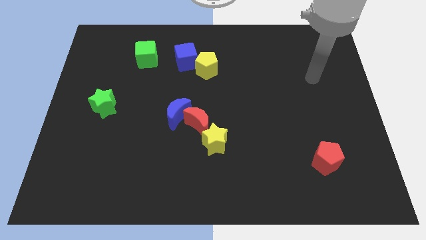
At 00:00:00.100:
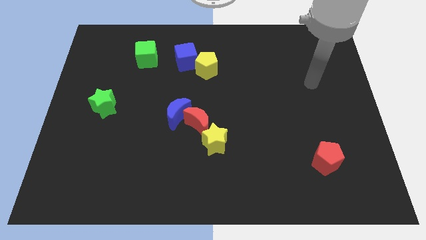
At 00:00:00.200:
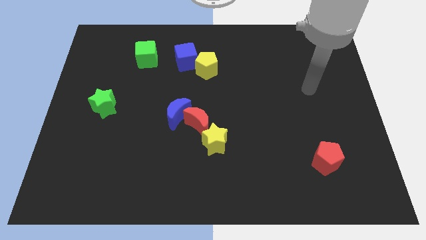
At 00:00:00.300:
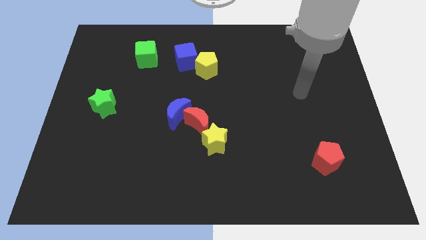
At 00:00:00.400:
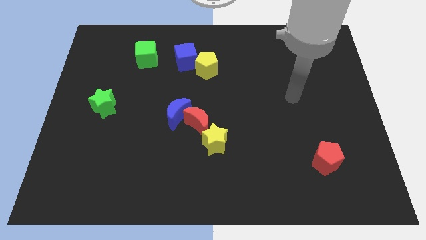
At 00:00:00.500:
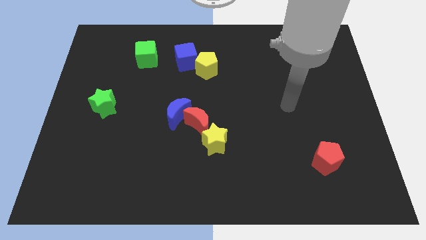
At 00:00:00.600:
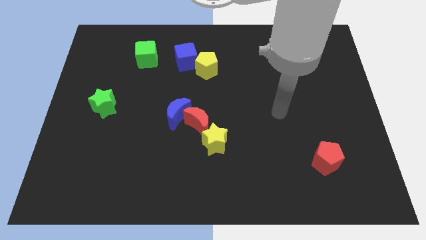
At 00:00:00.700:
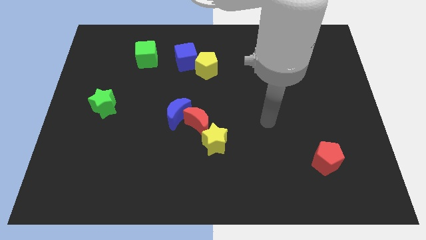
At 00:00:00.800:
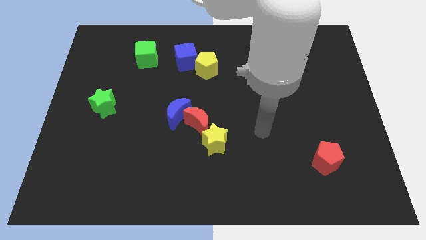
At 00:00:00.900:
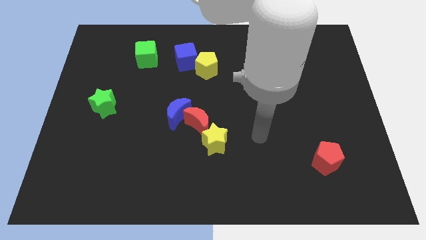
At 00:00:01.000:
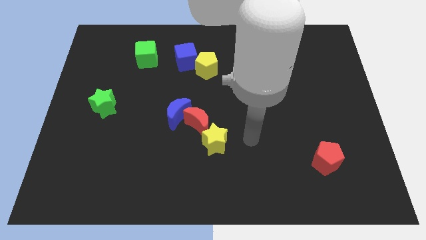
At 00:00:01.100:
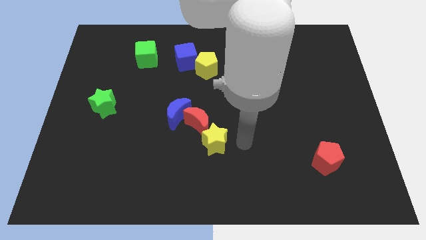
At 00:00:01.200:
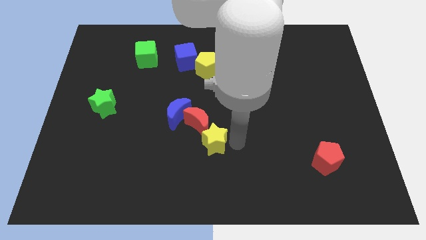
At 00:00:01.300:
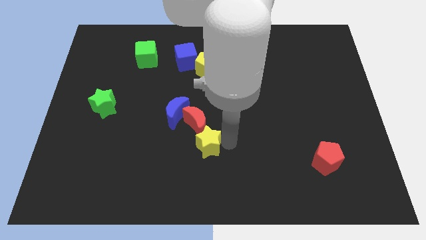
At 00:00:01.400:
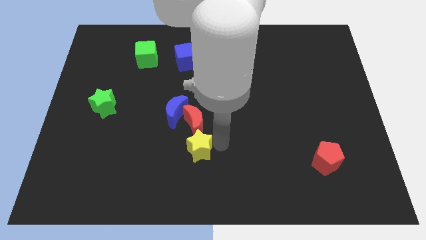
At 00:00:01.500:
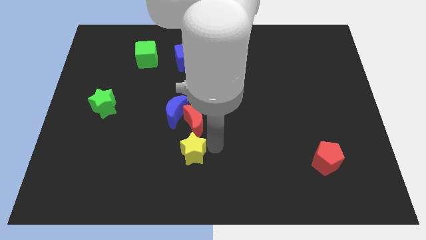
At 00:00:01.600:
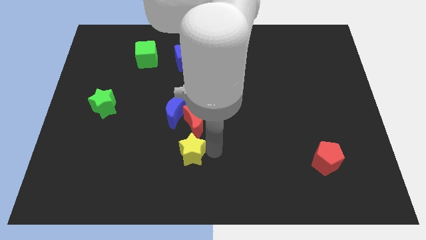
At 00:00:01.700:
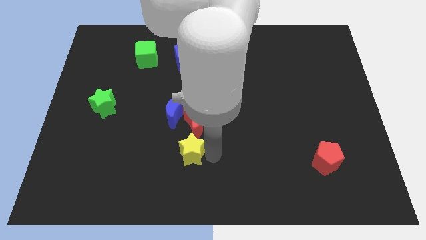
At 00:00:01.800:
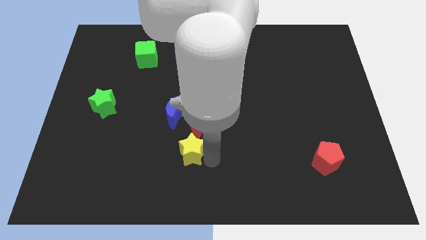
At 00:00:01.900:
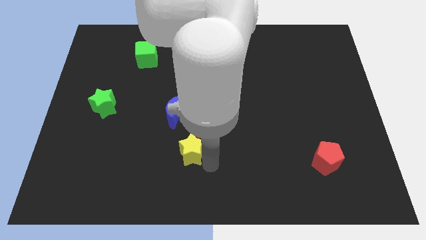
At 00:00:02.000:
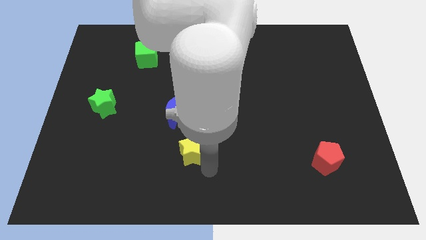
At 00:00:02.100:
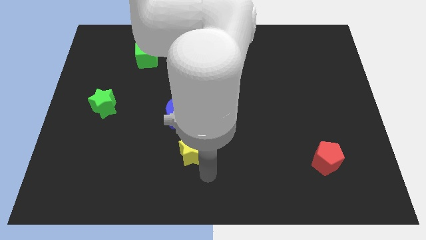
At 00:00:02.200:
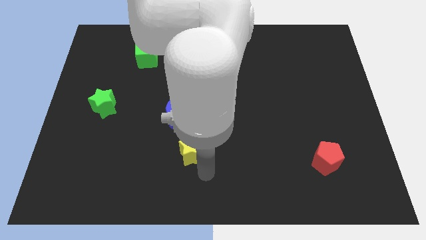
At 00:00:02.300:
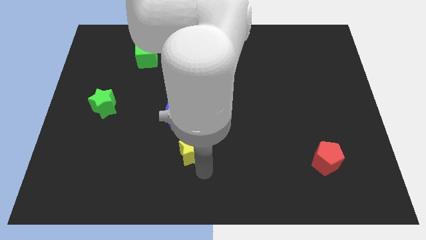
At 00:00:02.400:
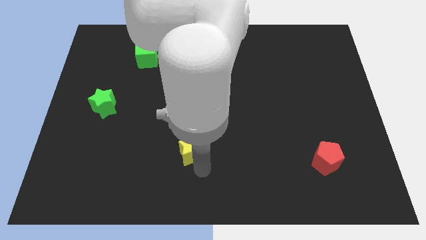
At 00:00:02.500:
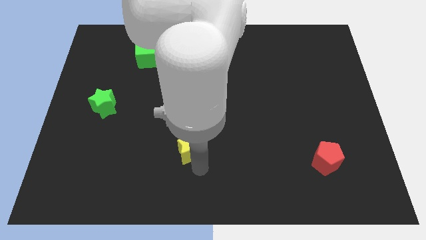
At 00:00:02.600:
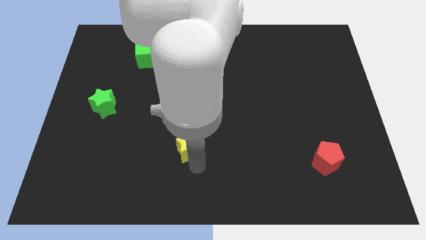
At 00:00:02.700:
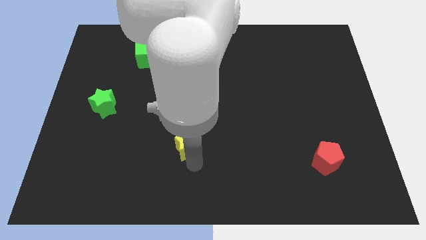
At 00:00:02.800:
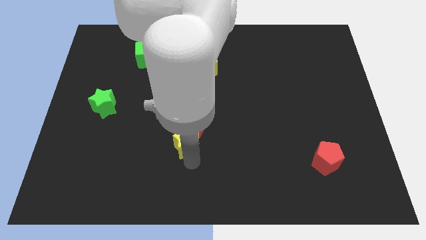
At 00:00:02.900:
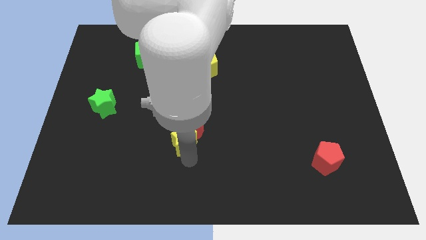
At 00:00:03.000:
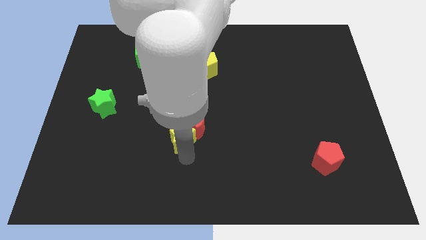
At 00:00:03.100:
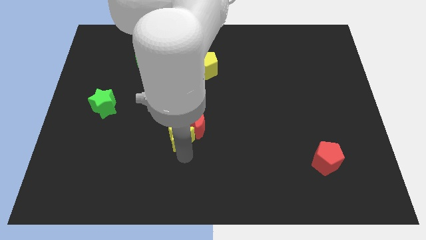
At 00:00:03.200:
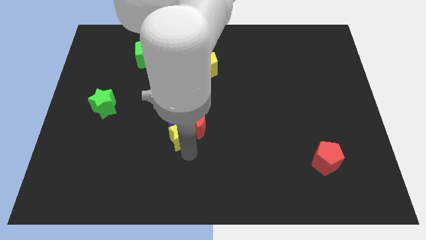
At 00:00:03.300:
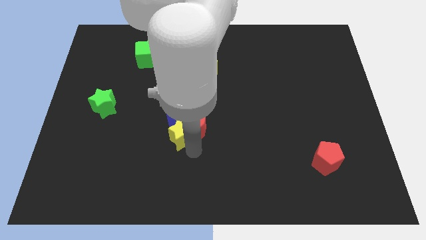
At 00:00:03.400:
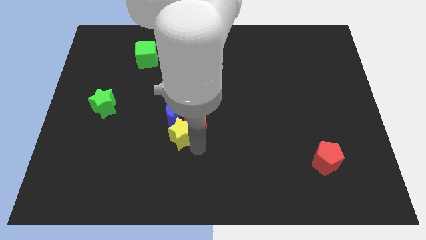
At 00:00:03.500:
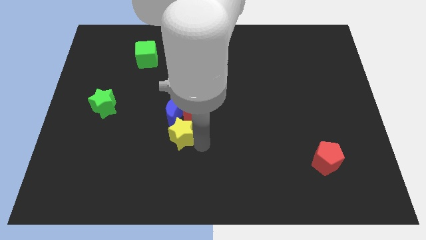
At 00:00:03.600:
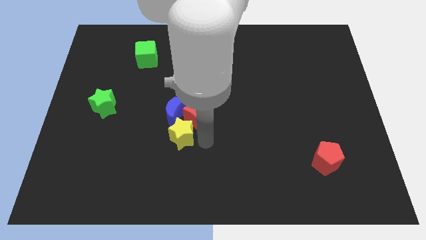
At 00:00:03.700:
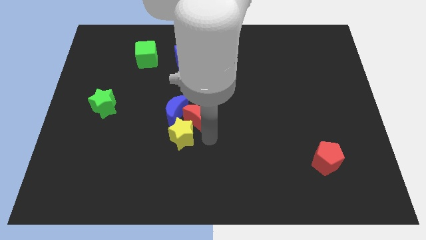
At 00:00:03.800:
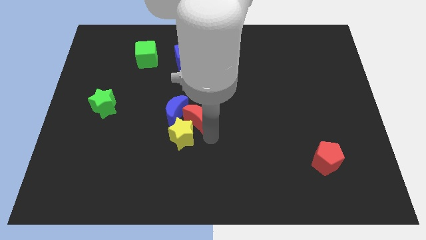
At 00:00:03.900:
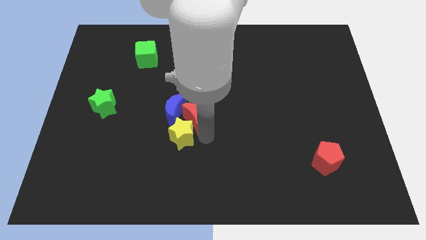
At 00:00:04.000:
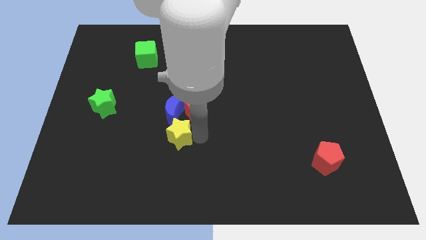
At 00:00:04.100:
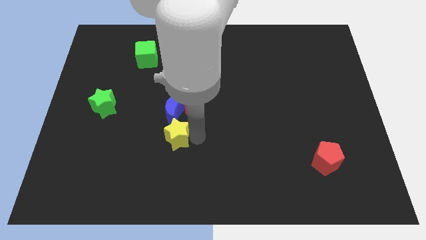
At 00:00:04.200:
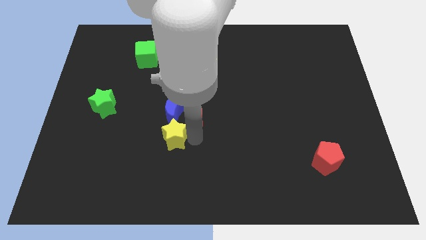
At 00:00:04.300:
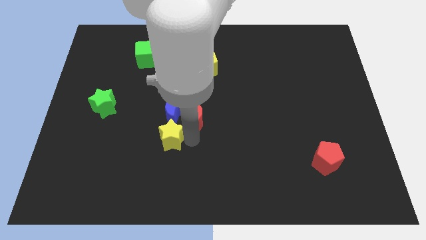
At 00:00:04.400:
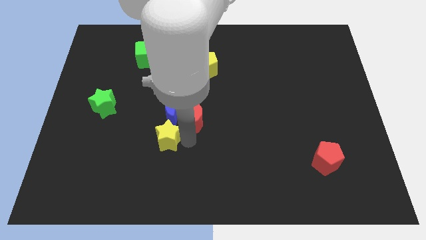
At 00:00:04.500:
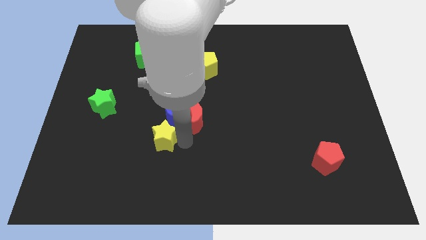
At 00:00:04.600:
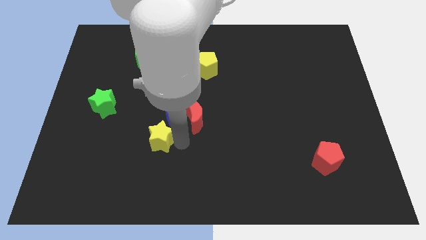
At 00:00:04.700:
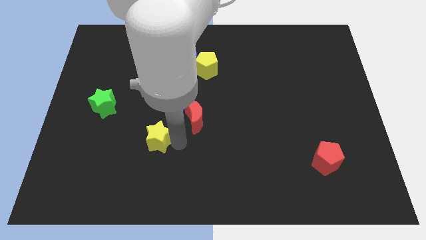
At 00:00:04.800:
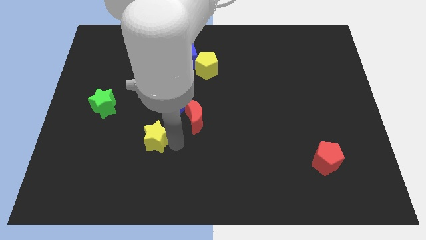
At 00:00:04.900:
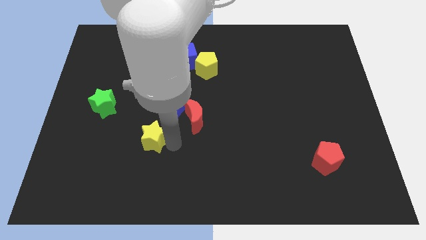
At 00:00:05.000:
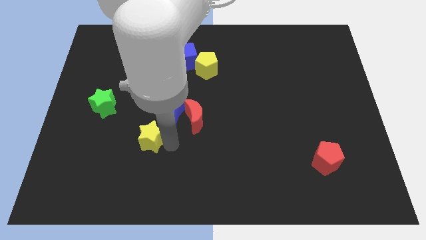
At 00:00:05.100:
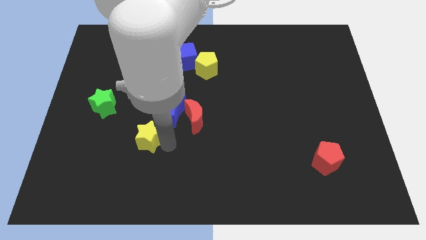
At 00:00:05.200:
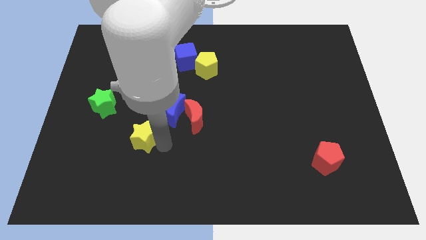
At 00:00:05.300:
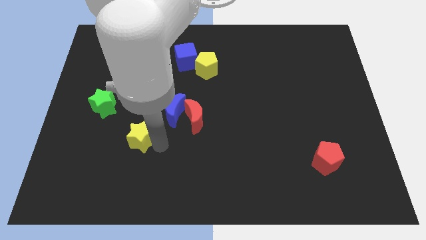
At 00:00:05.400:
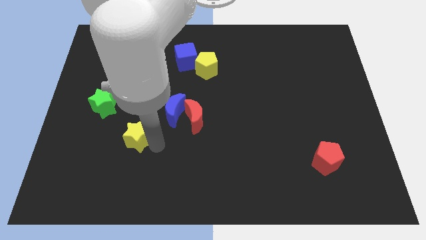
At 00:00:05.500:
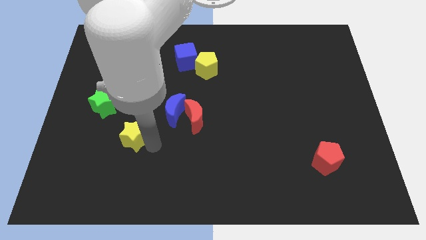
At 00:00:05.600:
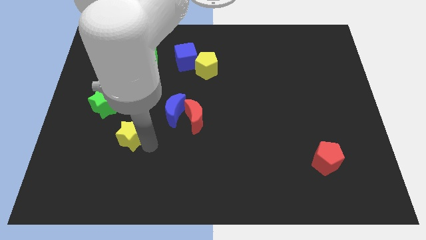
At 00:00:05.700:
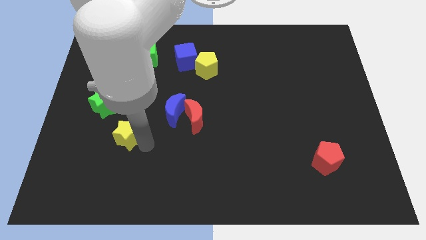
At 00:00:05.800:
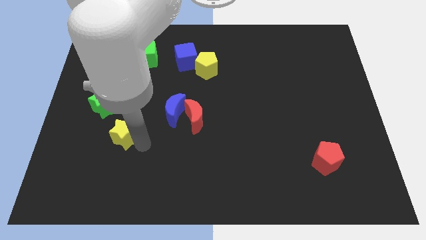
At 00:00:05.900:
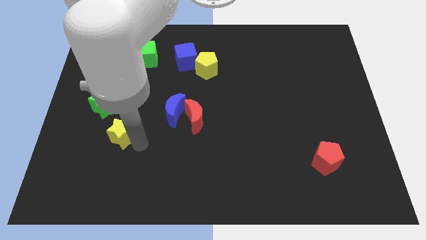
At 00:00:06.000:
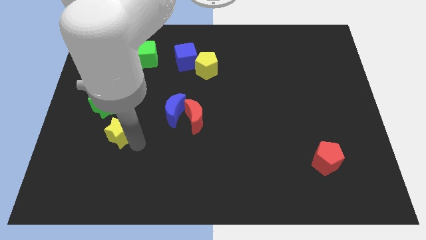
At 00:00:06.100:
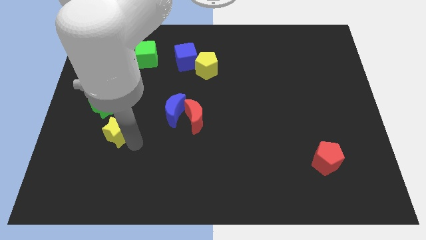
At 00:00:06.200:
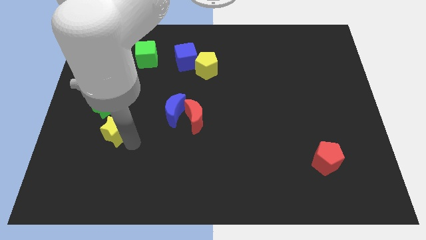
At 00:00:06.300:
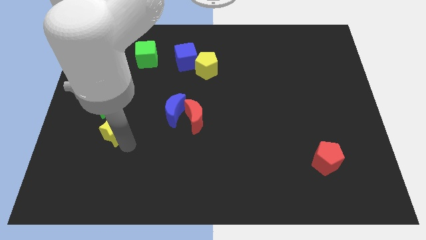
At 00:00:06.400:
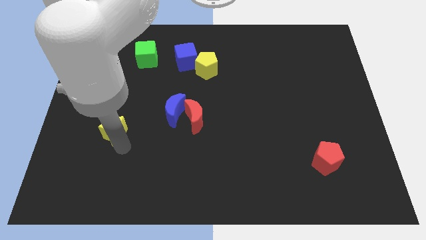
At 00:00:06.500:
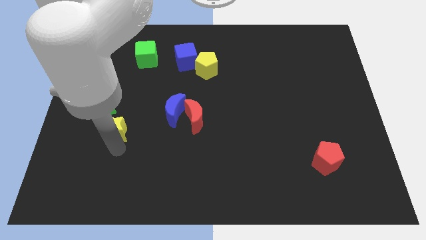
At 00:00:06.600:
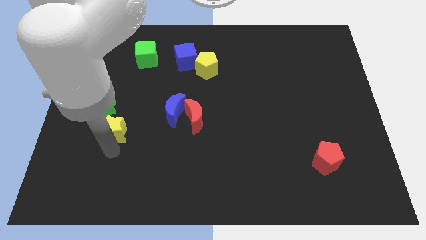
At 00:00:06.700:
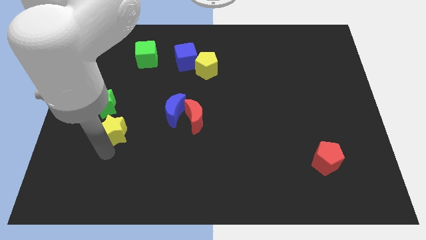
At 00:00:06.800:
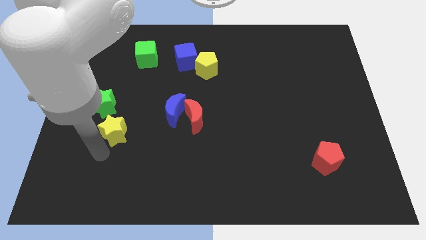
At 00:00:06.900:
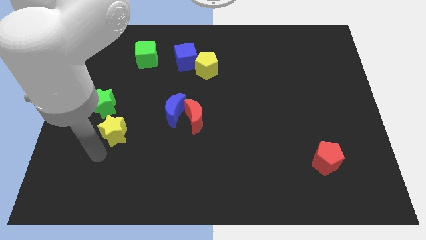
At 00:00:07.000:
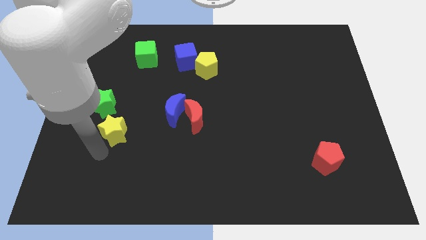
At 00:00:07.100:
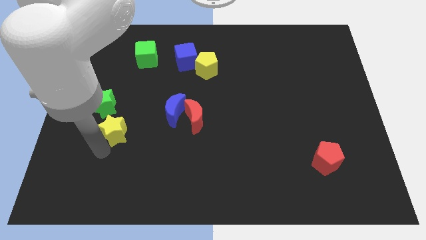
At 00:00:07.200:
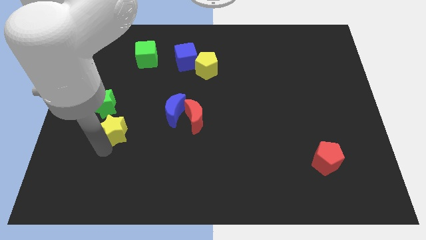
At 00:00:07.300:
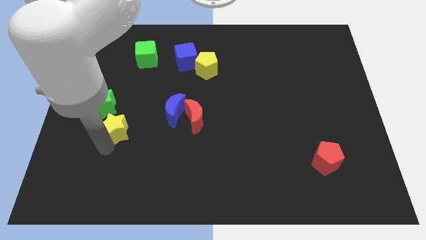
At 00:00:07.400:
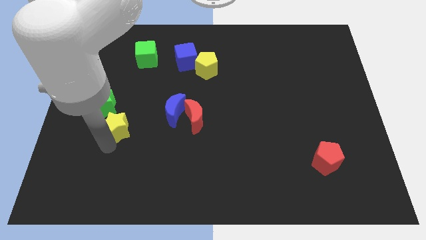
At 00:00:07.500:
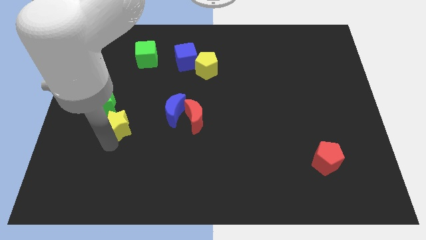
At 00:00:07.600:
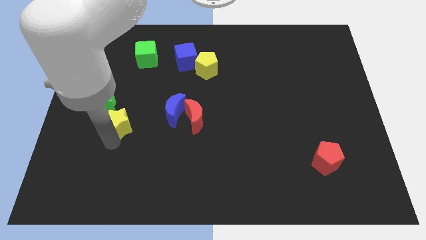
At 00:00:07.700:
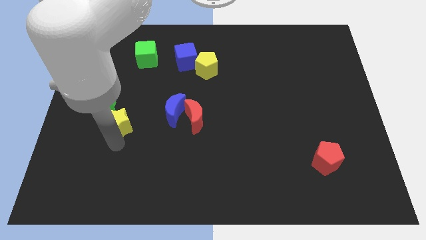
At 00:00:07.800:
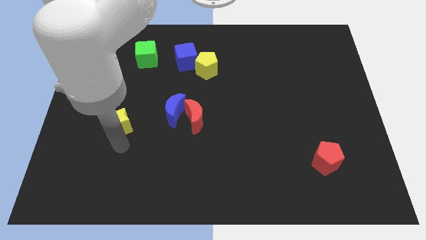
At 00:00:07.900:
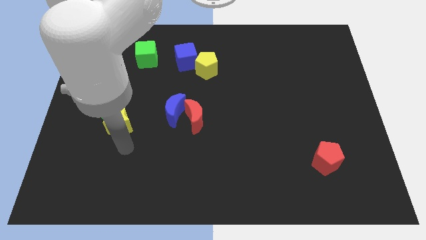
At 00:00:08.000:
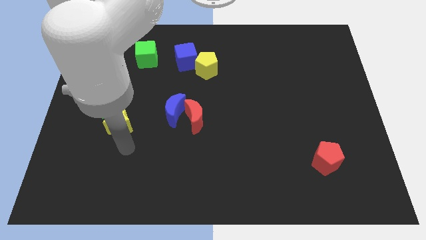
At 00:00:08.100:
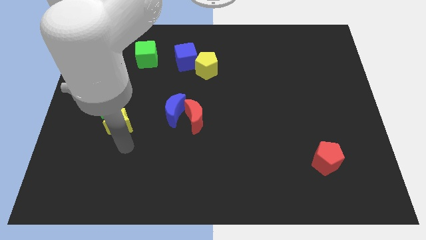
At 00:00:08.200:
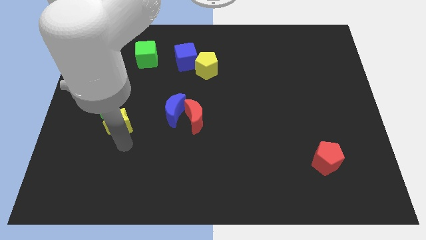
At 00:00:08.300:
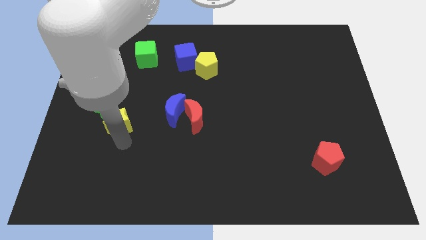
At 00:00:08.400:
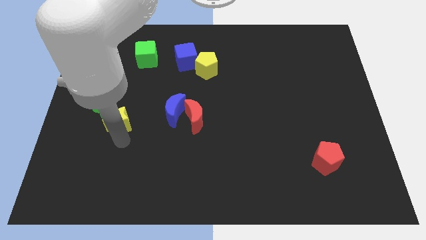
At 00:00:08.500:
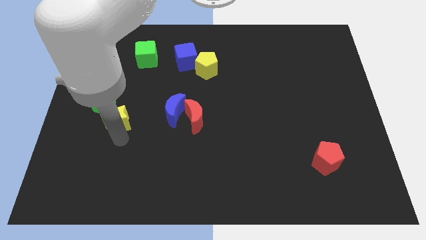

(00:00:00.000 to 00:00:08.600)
put the yellow star close to the green star
